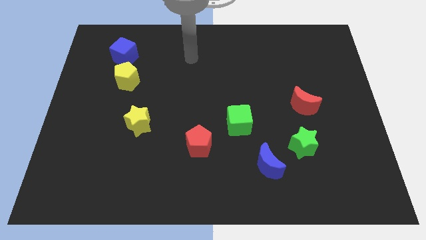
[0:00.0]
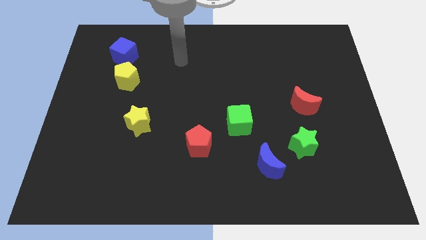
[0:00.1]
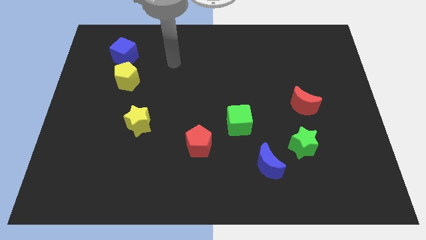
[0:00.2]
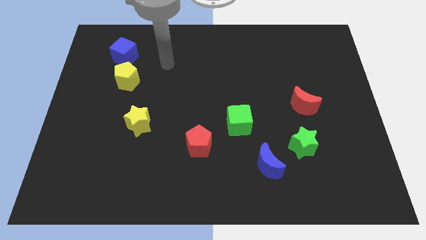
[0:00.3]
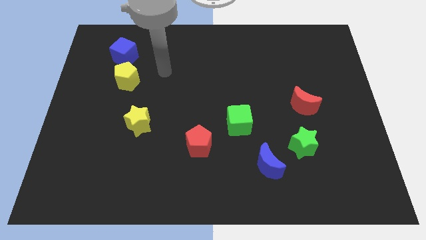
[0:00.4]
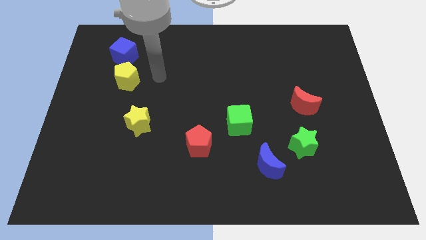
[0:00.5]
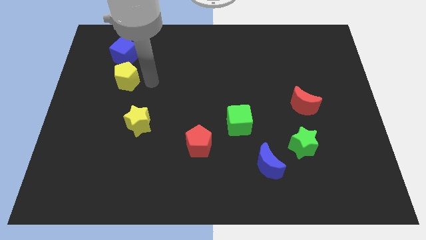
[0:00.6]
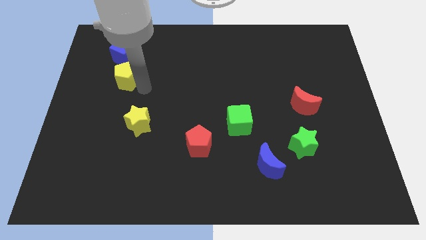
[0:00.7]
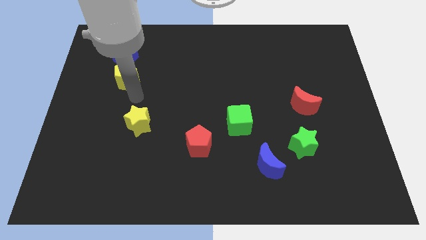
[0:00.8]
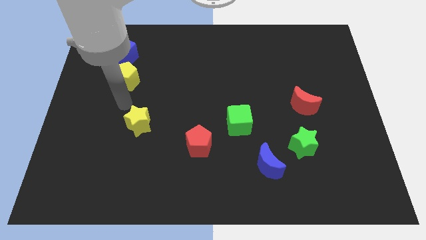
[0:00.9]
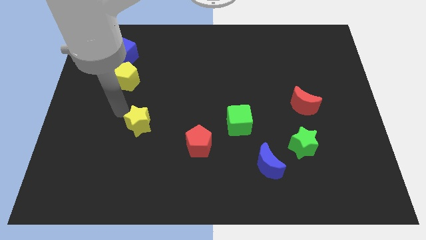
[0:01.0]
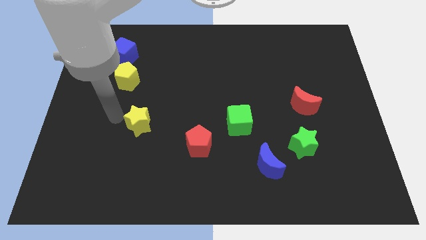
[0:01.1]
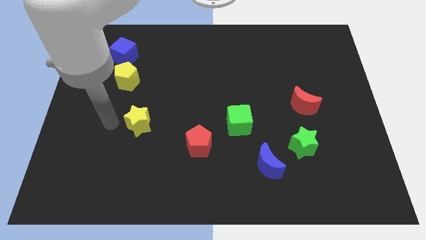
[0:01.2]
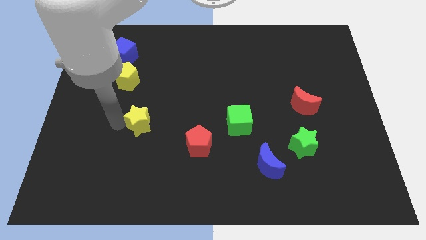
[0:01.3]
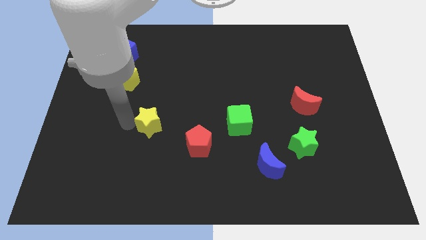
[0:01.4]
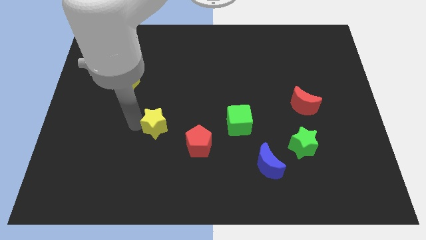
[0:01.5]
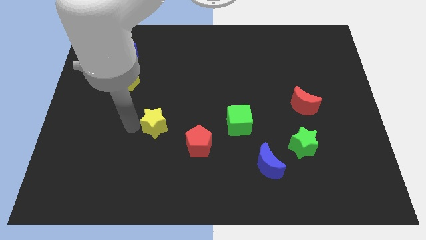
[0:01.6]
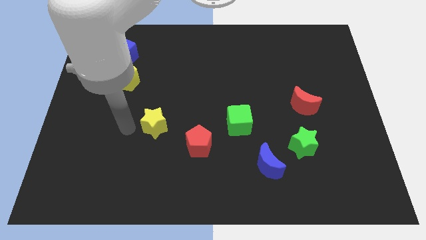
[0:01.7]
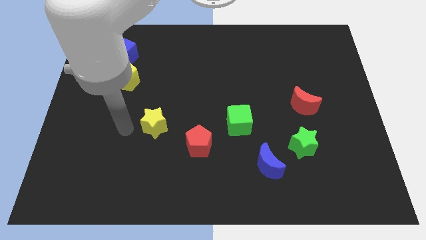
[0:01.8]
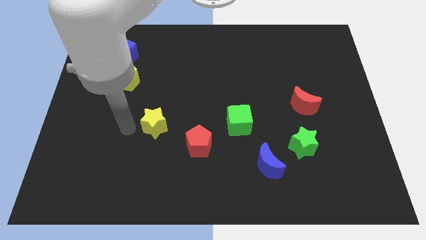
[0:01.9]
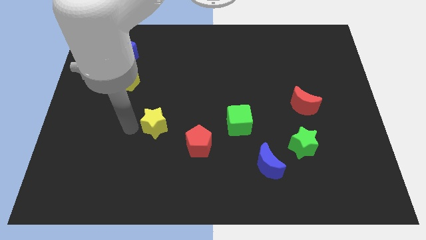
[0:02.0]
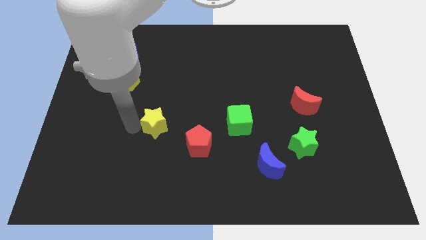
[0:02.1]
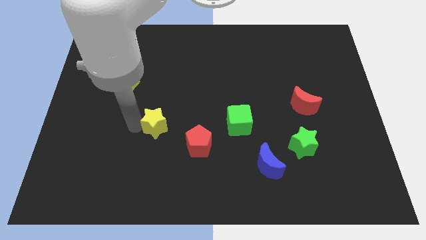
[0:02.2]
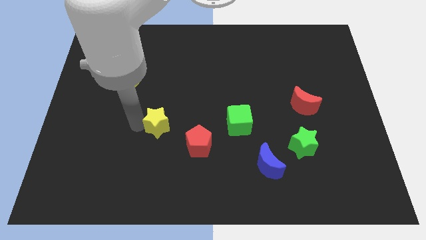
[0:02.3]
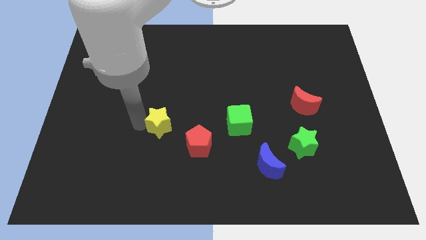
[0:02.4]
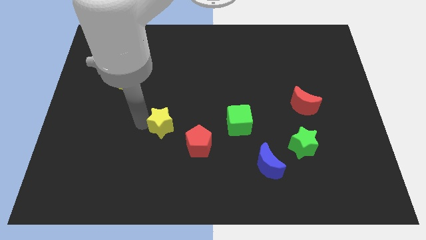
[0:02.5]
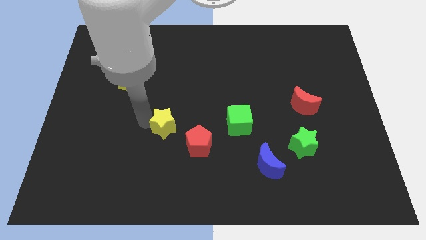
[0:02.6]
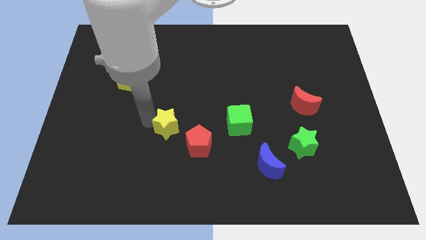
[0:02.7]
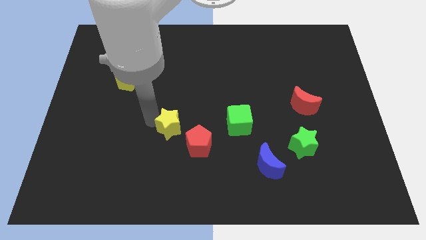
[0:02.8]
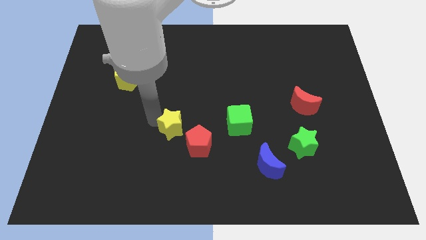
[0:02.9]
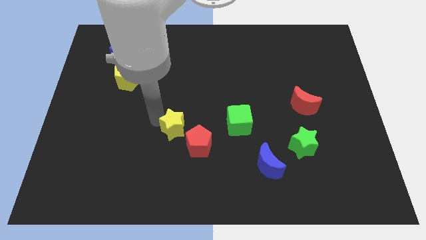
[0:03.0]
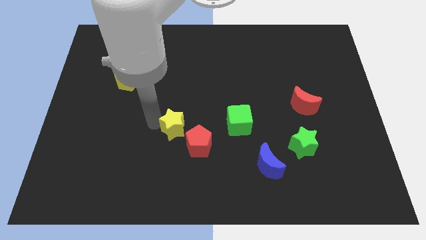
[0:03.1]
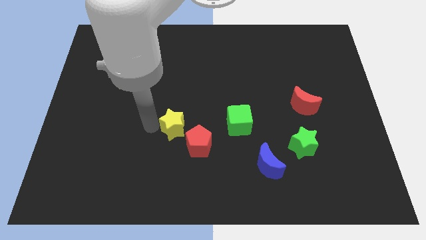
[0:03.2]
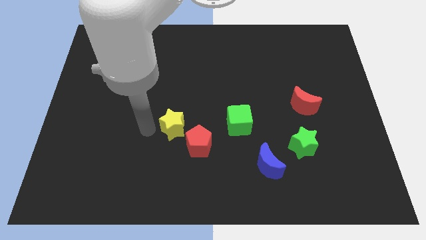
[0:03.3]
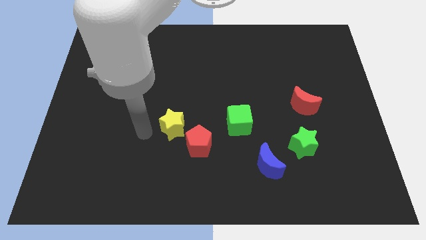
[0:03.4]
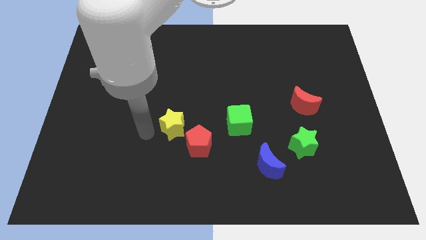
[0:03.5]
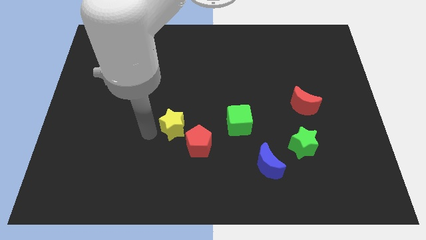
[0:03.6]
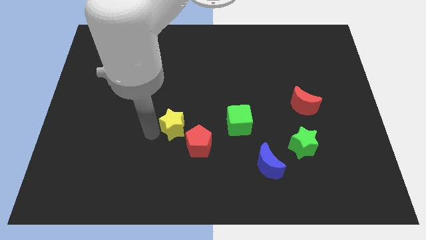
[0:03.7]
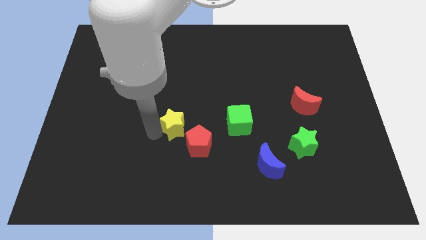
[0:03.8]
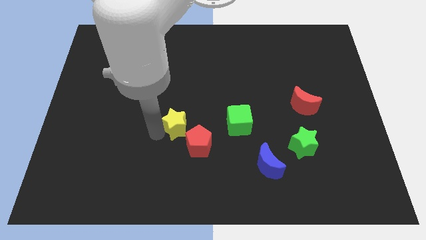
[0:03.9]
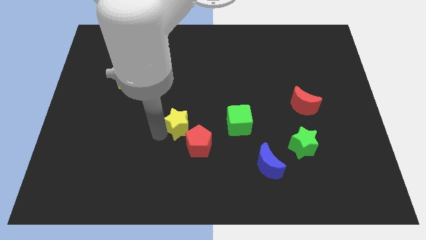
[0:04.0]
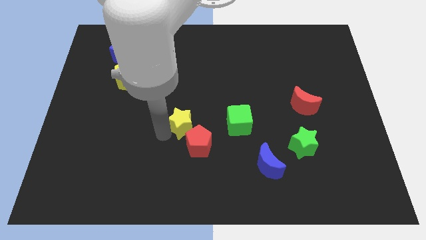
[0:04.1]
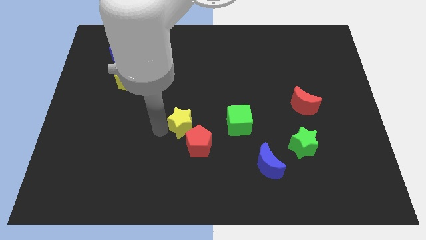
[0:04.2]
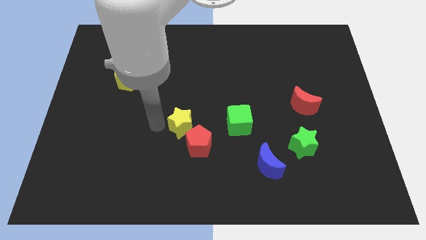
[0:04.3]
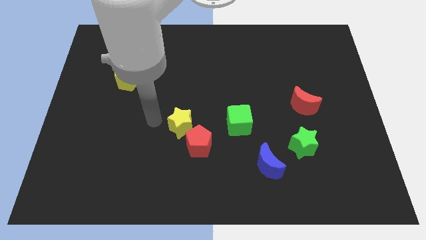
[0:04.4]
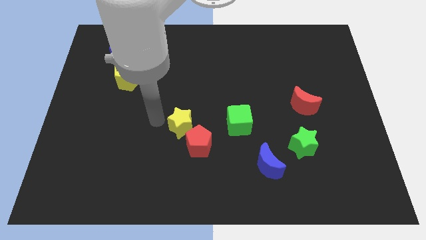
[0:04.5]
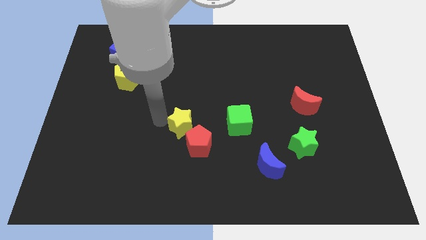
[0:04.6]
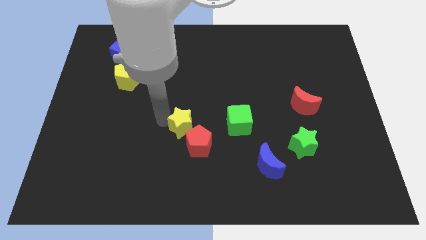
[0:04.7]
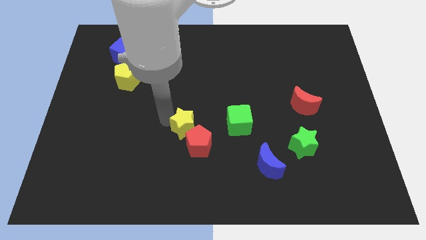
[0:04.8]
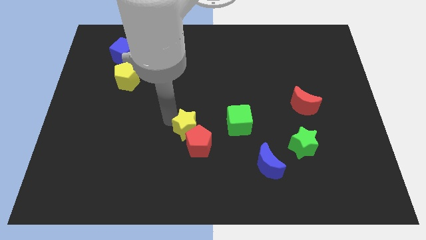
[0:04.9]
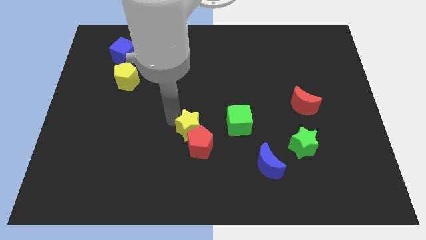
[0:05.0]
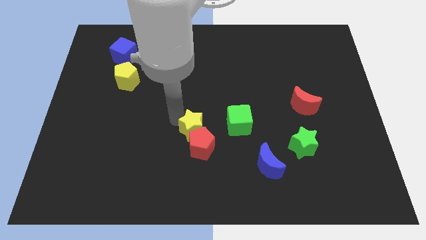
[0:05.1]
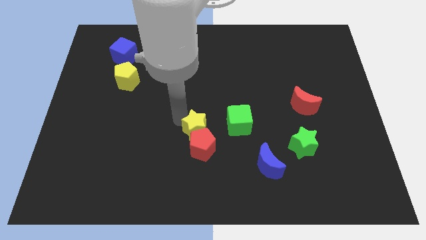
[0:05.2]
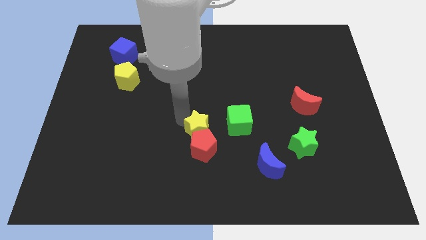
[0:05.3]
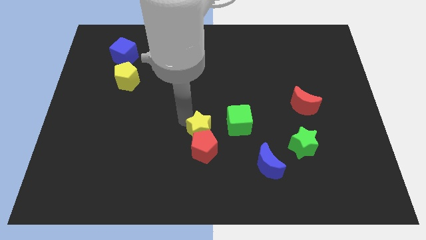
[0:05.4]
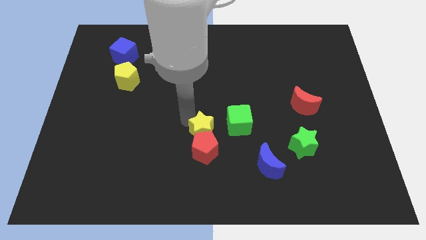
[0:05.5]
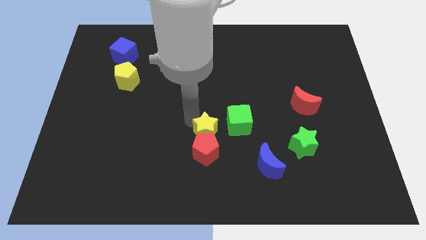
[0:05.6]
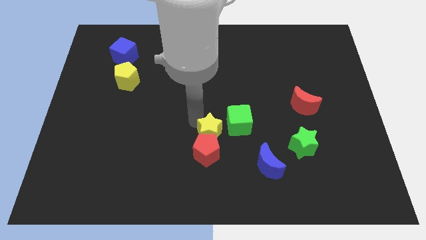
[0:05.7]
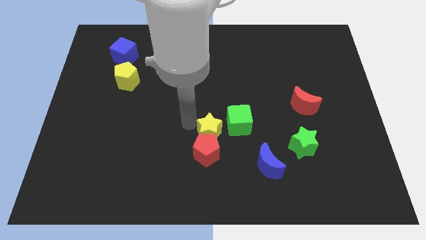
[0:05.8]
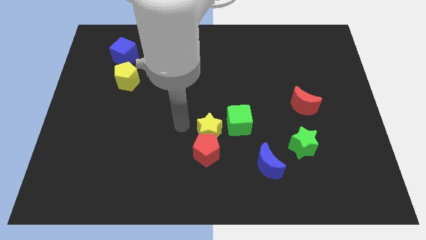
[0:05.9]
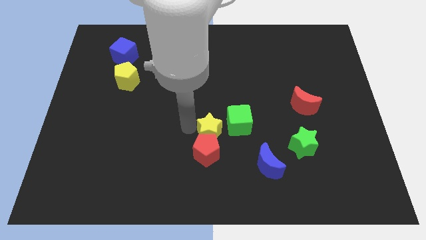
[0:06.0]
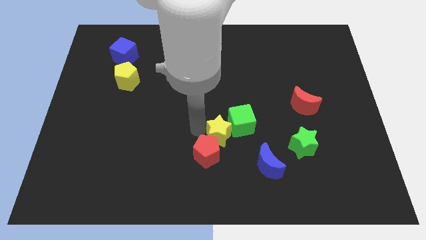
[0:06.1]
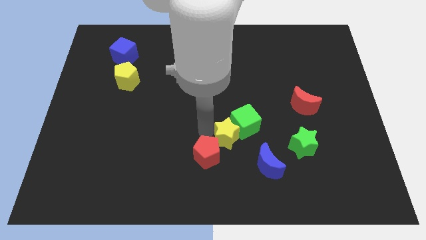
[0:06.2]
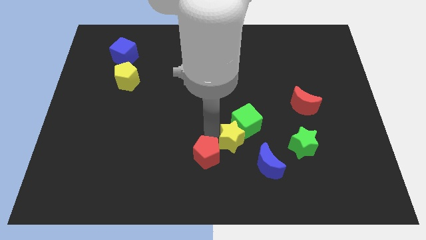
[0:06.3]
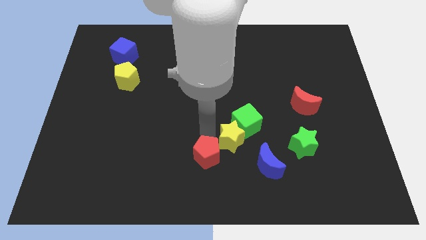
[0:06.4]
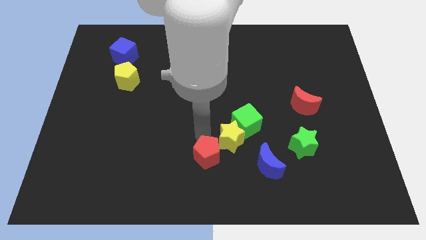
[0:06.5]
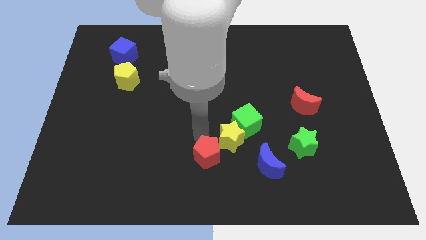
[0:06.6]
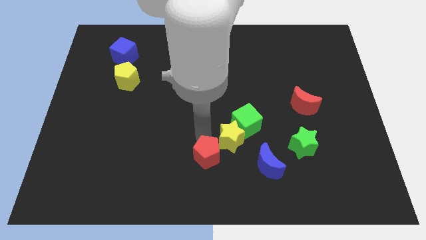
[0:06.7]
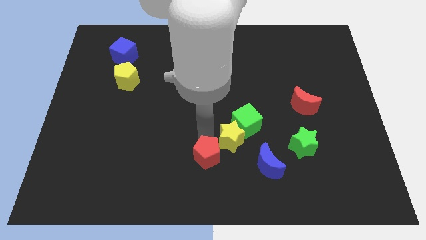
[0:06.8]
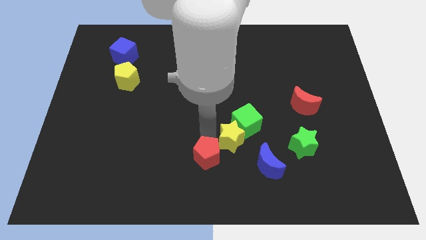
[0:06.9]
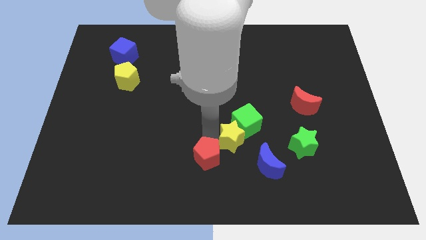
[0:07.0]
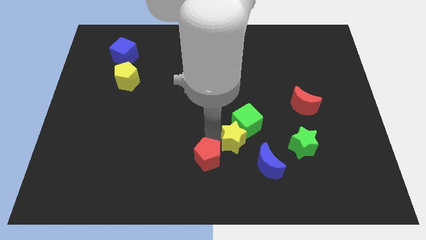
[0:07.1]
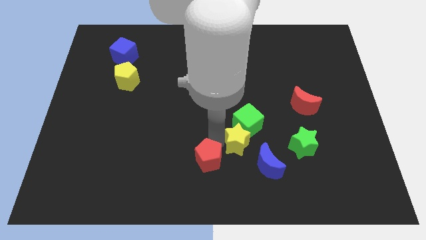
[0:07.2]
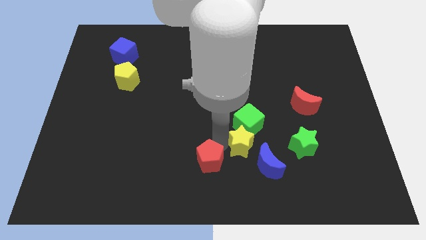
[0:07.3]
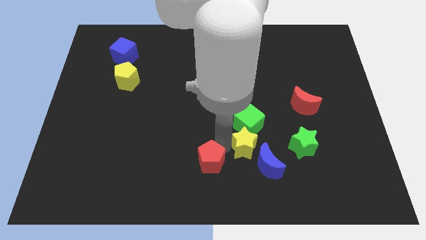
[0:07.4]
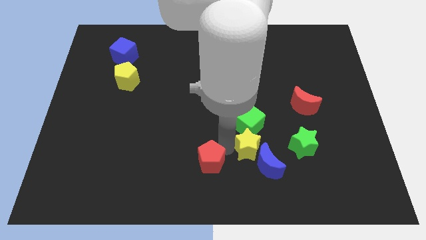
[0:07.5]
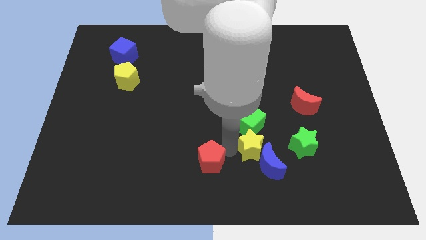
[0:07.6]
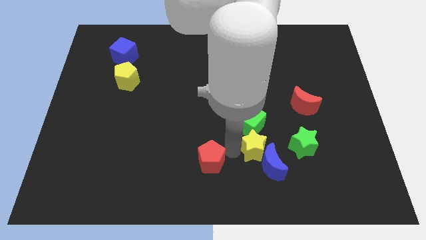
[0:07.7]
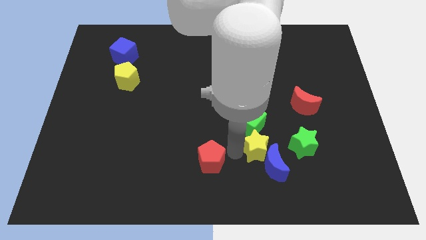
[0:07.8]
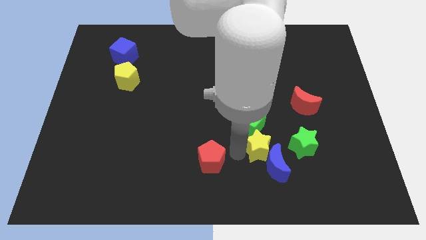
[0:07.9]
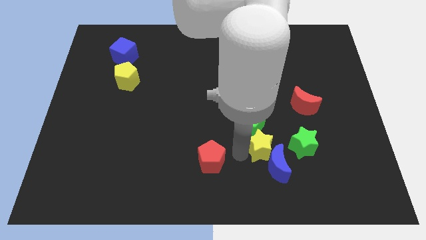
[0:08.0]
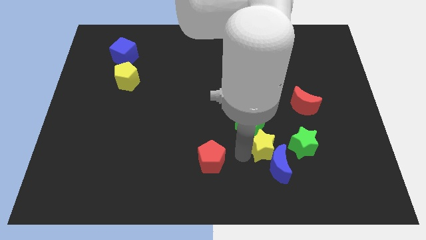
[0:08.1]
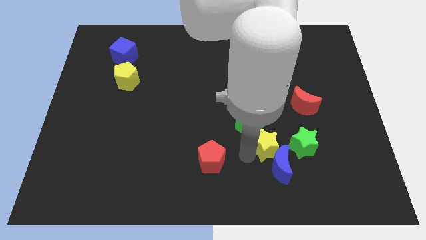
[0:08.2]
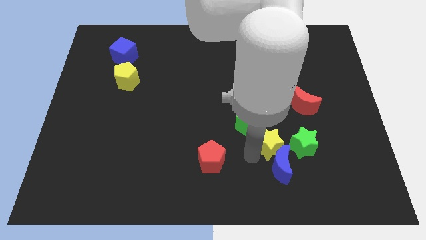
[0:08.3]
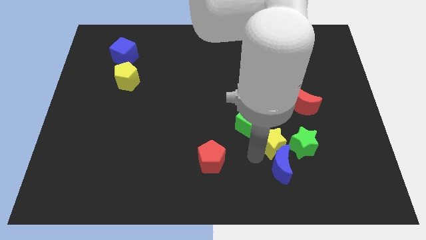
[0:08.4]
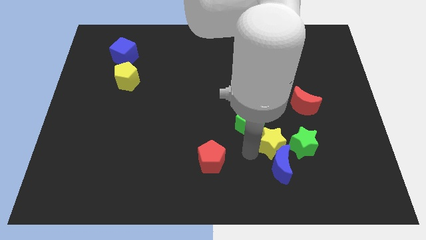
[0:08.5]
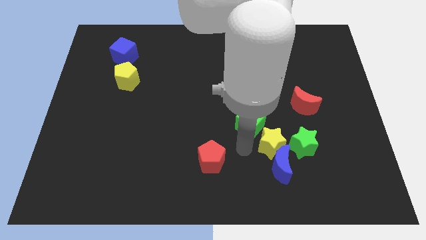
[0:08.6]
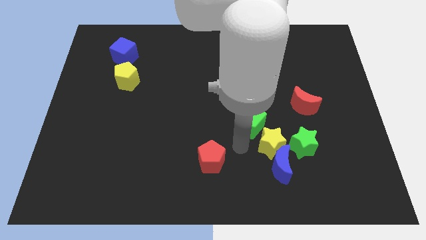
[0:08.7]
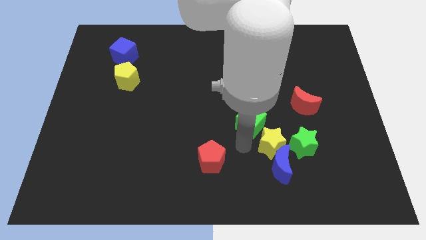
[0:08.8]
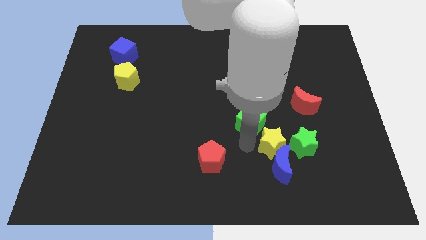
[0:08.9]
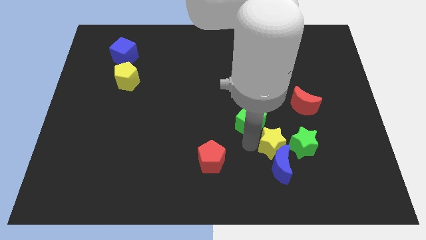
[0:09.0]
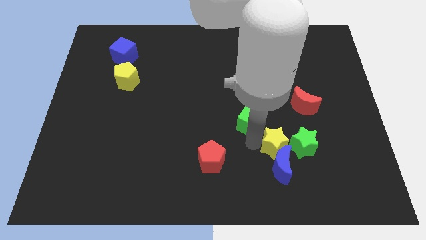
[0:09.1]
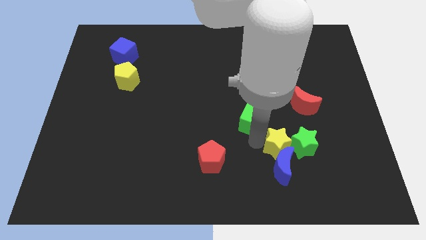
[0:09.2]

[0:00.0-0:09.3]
push the yellow star to the green star
